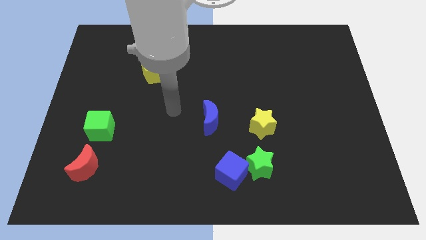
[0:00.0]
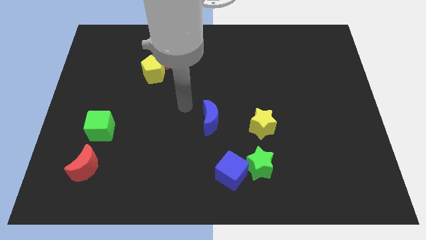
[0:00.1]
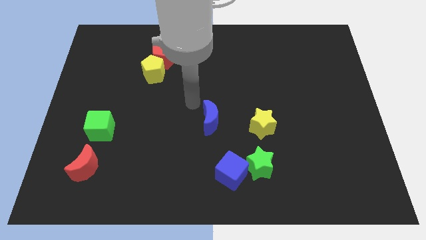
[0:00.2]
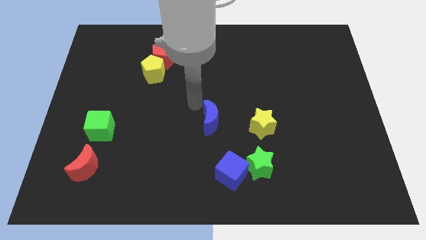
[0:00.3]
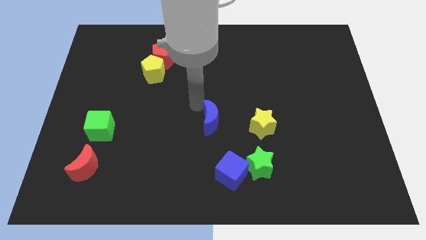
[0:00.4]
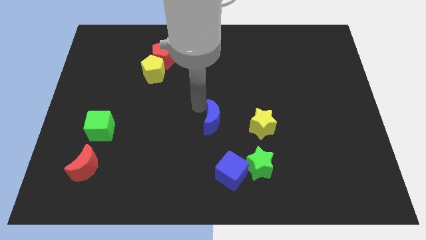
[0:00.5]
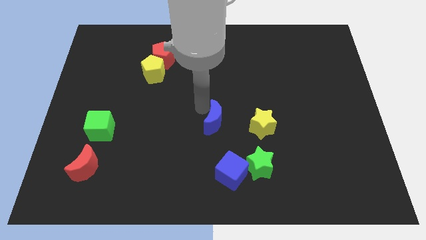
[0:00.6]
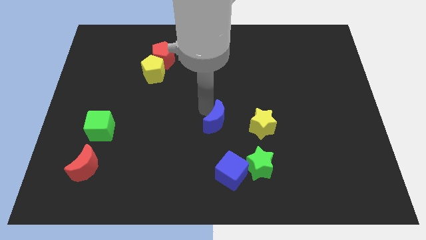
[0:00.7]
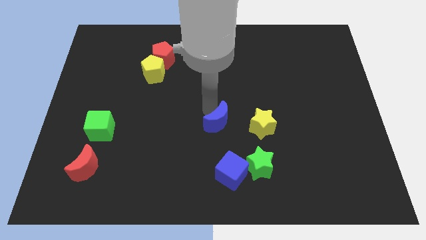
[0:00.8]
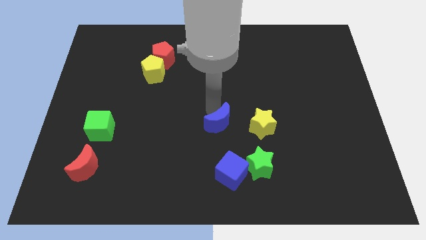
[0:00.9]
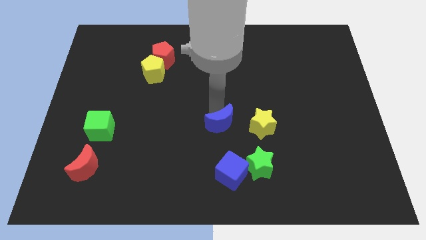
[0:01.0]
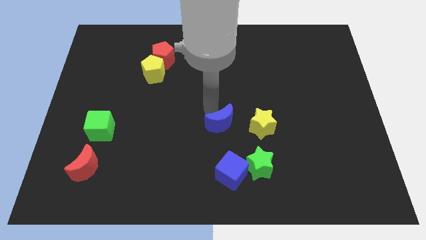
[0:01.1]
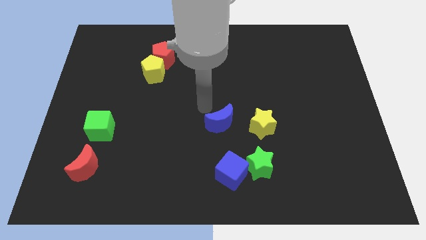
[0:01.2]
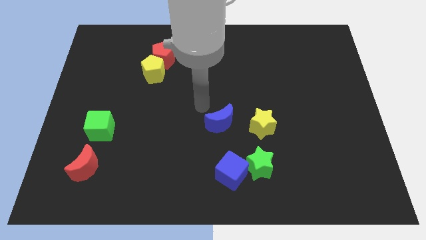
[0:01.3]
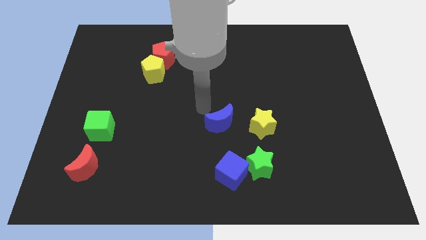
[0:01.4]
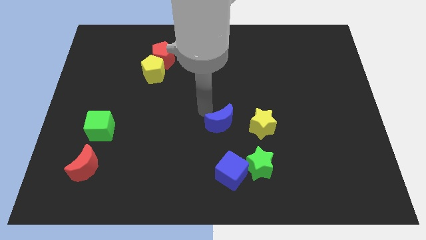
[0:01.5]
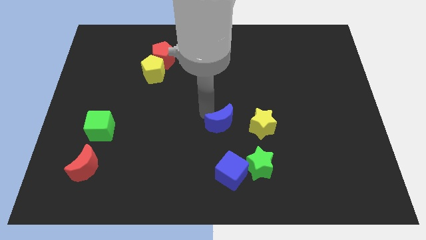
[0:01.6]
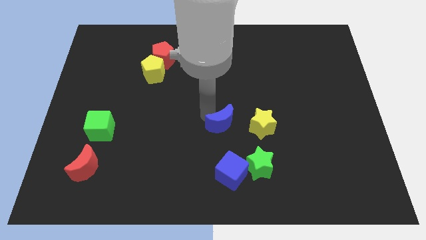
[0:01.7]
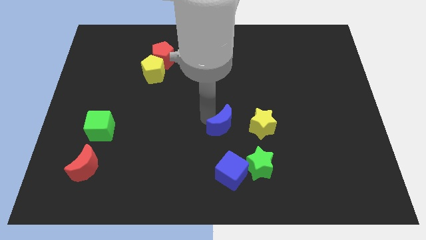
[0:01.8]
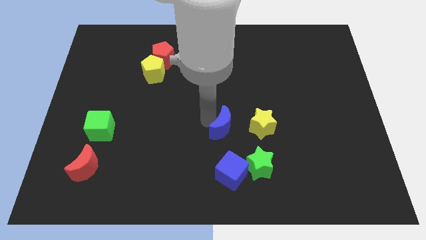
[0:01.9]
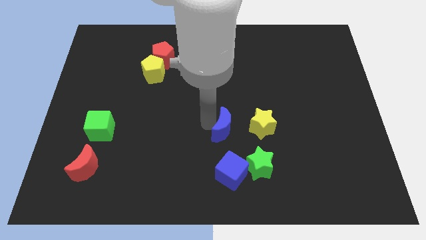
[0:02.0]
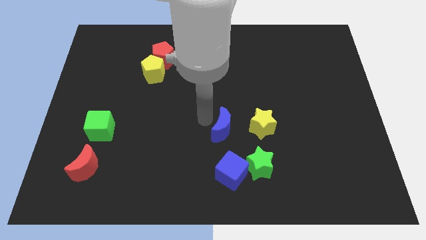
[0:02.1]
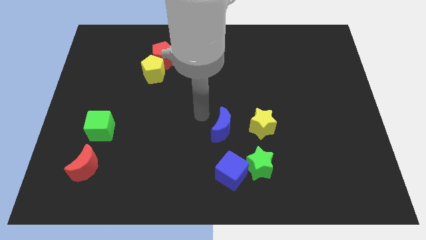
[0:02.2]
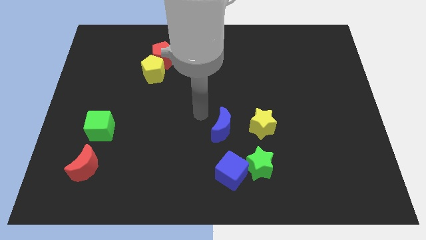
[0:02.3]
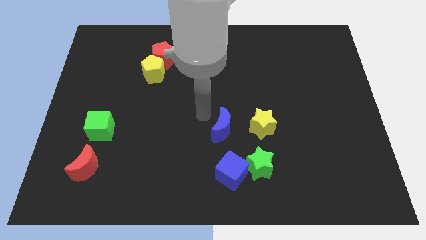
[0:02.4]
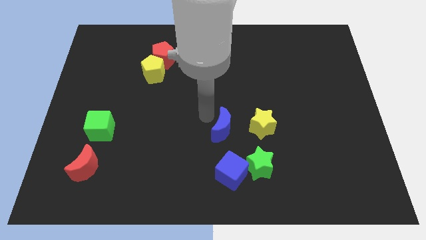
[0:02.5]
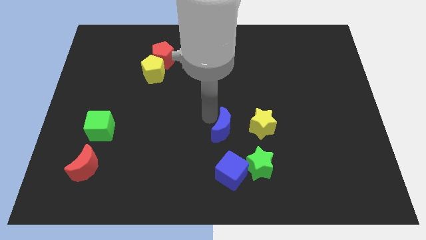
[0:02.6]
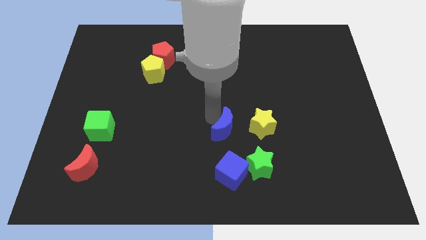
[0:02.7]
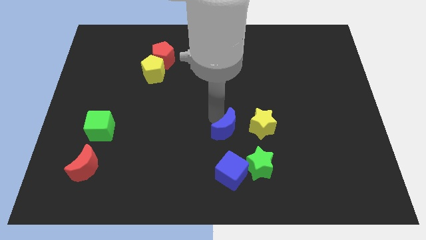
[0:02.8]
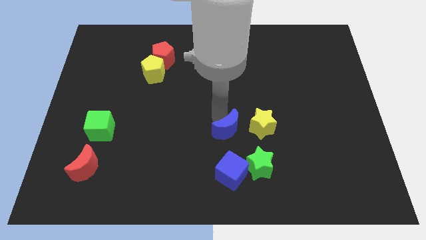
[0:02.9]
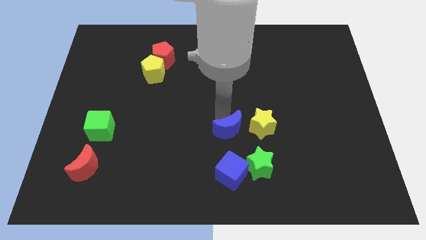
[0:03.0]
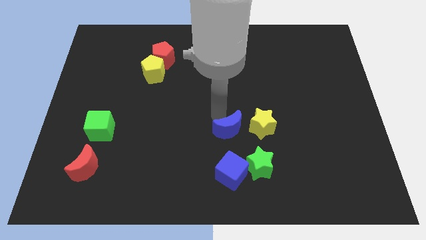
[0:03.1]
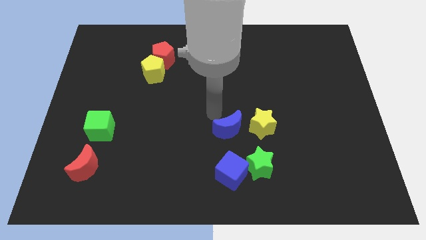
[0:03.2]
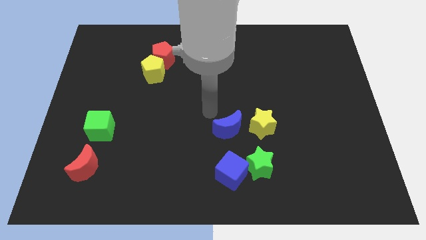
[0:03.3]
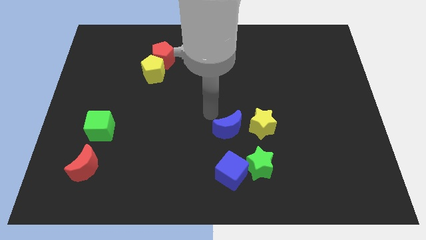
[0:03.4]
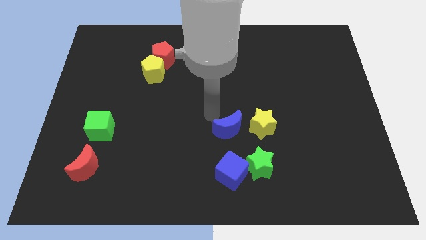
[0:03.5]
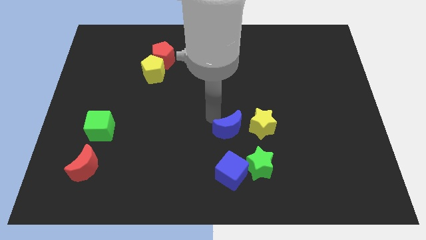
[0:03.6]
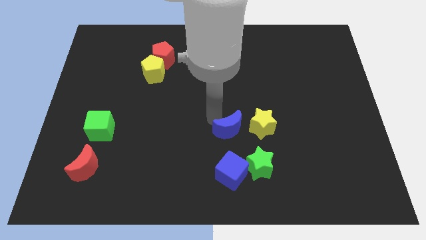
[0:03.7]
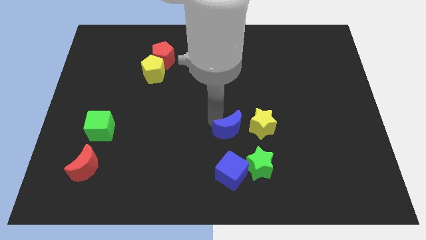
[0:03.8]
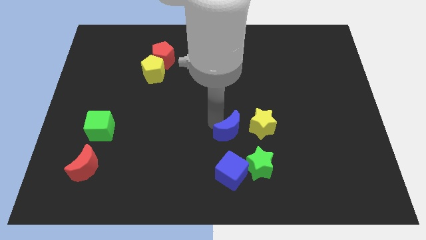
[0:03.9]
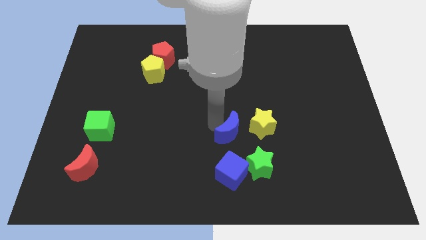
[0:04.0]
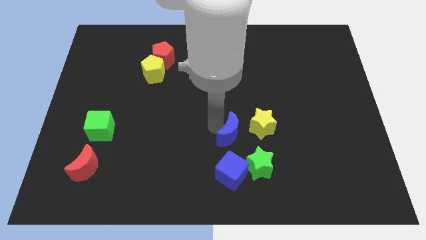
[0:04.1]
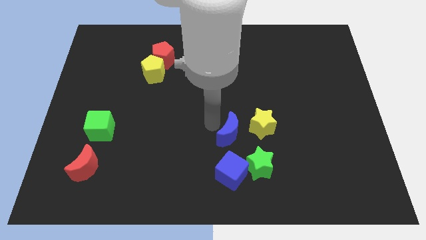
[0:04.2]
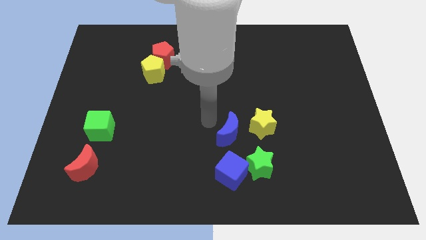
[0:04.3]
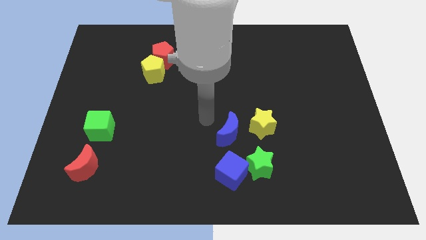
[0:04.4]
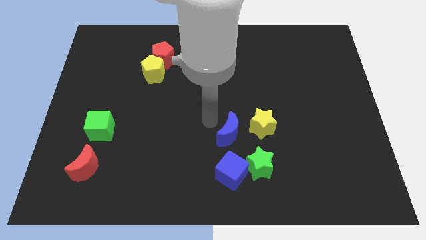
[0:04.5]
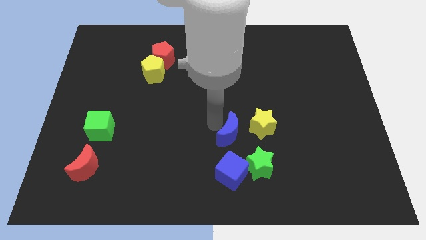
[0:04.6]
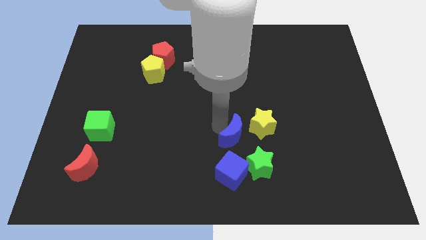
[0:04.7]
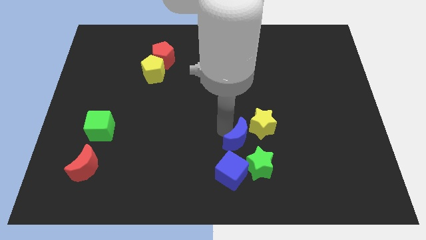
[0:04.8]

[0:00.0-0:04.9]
slide the blue moon slightly downwards and right diagonally

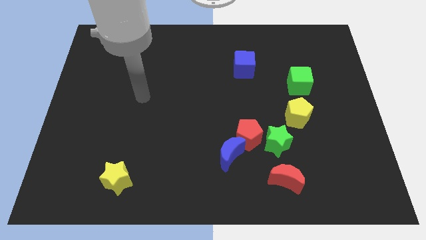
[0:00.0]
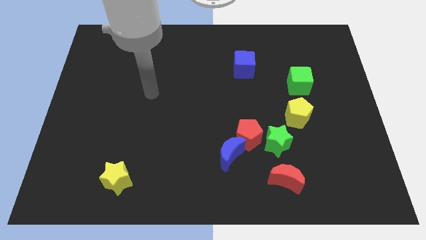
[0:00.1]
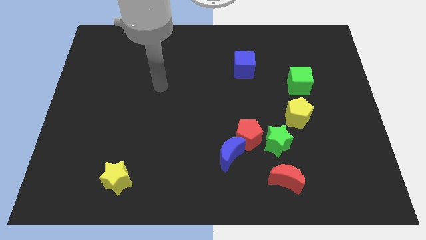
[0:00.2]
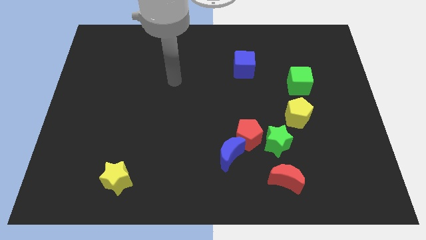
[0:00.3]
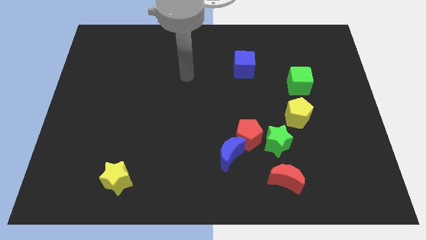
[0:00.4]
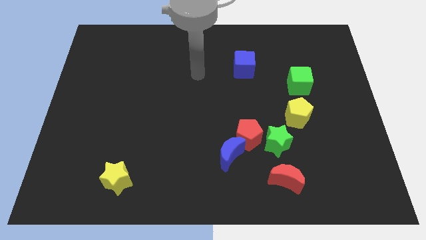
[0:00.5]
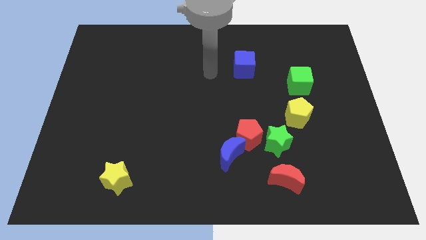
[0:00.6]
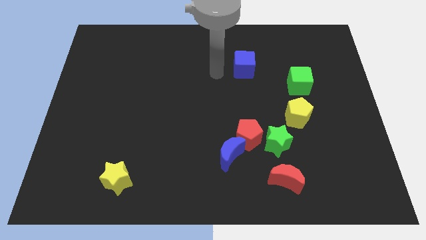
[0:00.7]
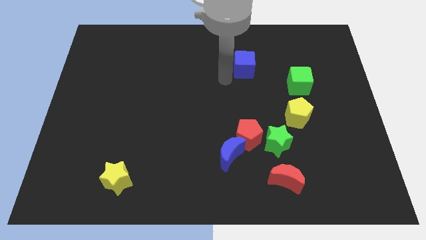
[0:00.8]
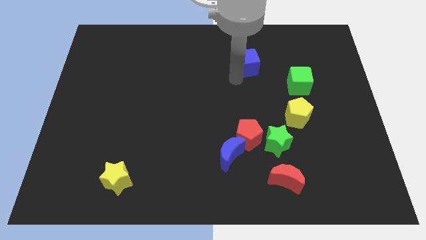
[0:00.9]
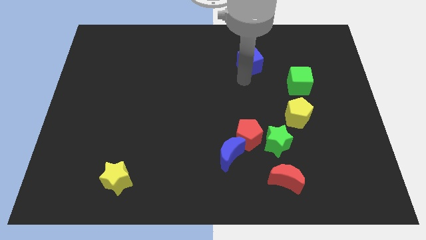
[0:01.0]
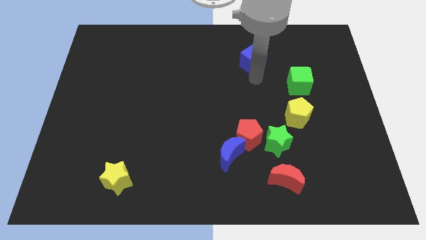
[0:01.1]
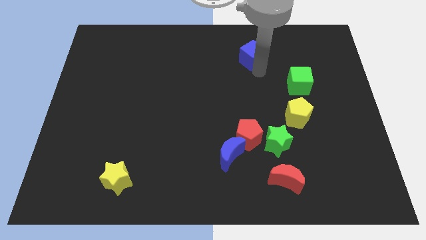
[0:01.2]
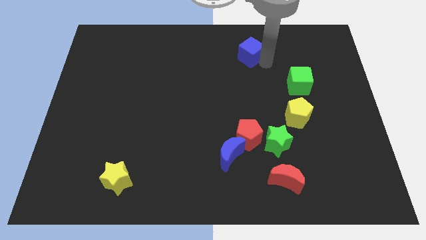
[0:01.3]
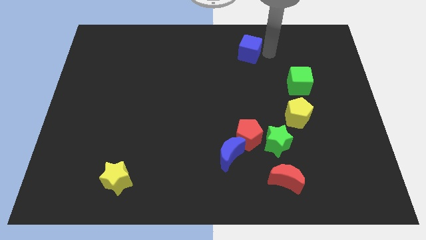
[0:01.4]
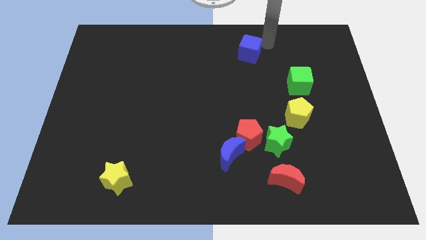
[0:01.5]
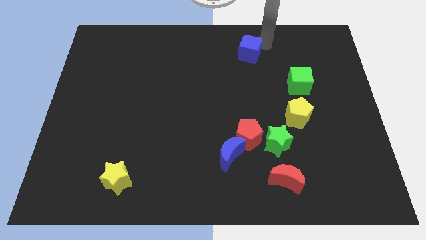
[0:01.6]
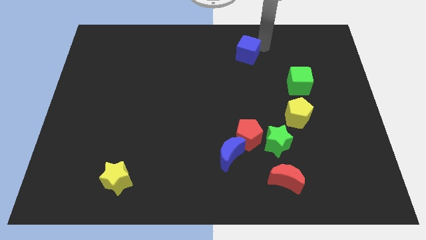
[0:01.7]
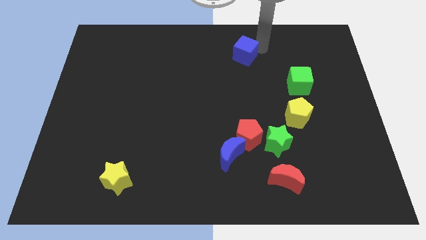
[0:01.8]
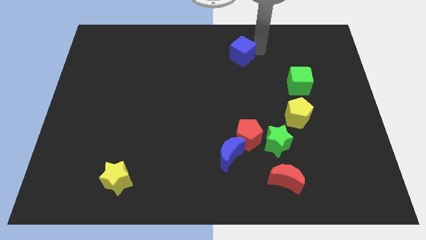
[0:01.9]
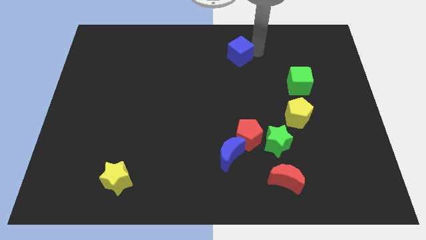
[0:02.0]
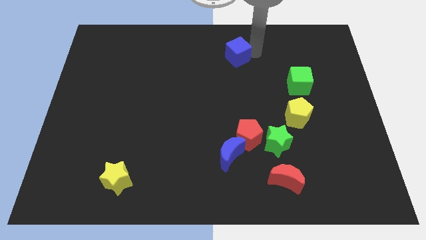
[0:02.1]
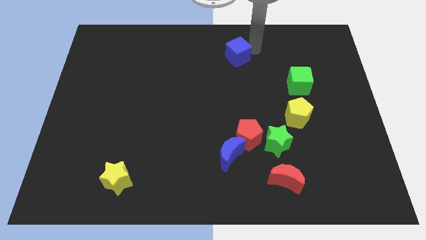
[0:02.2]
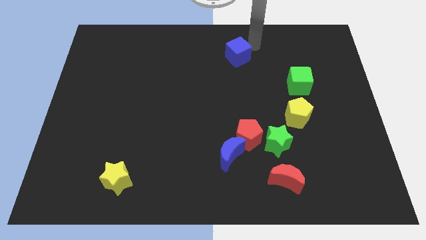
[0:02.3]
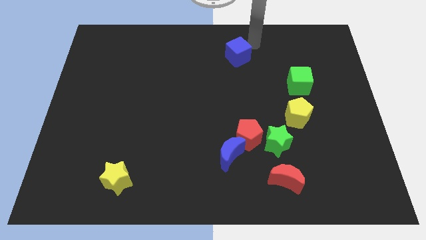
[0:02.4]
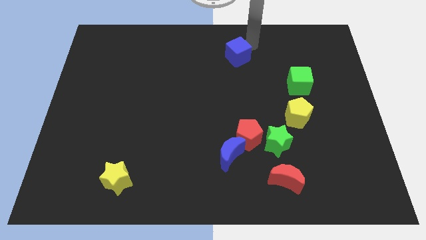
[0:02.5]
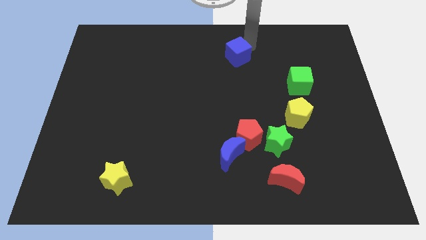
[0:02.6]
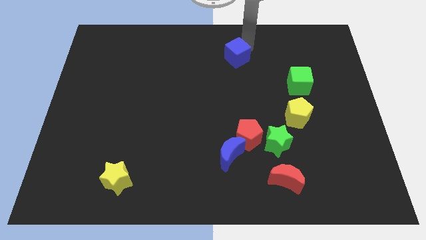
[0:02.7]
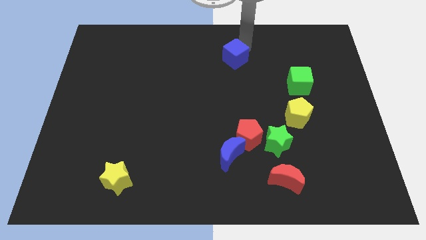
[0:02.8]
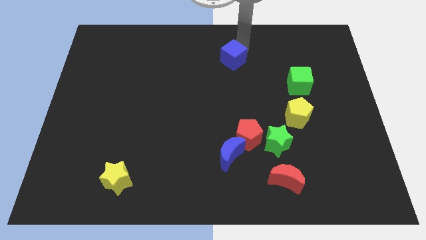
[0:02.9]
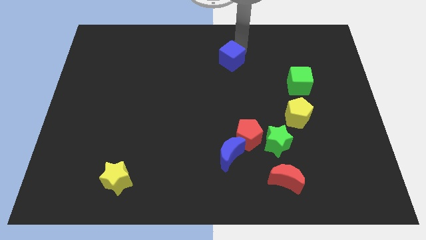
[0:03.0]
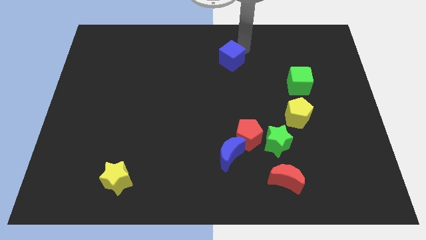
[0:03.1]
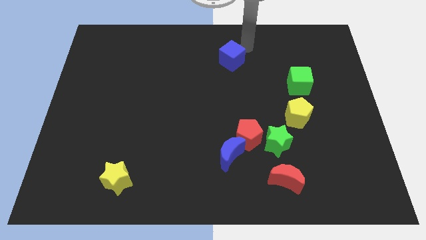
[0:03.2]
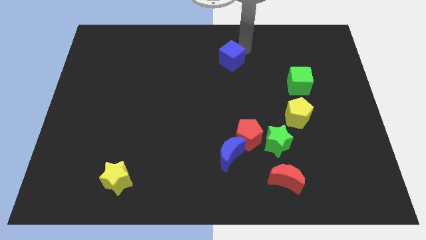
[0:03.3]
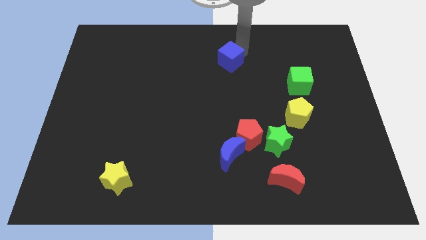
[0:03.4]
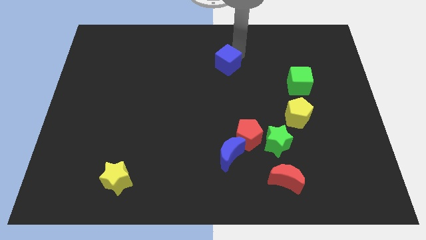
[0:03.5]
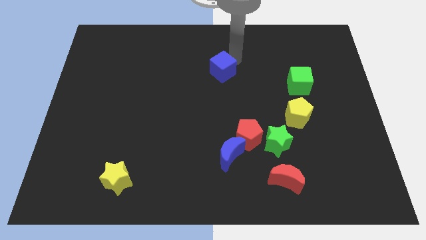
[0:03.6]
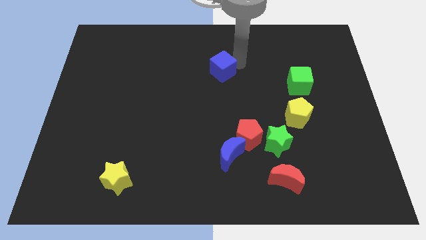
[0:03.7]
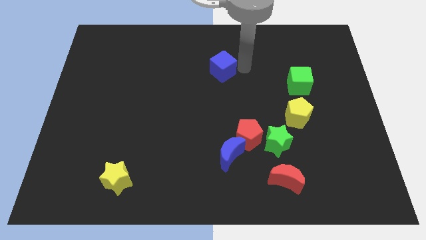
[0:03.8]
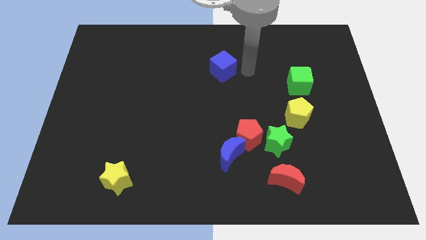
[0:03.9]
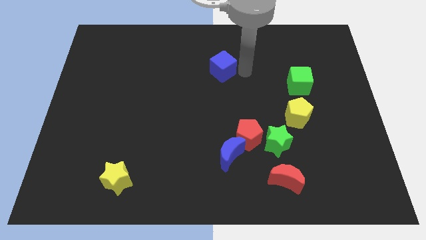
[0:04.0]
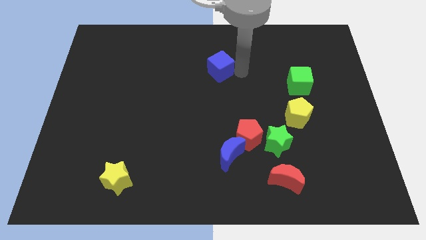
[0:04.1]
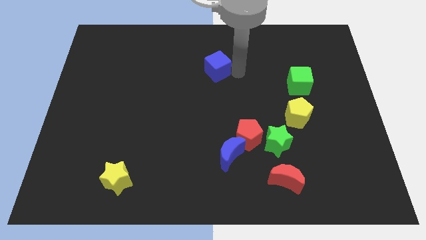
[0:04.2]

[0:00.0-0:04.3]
slide the blue cube left a little bit
